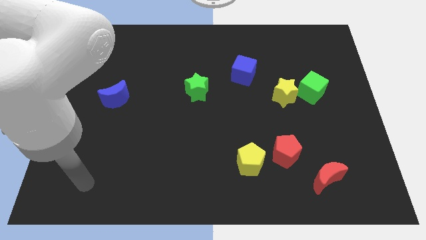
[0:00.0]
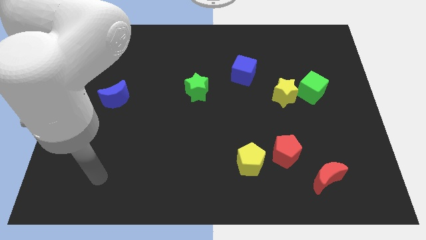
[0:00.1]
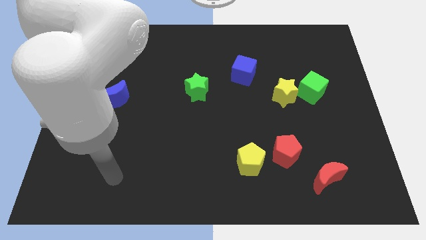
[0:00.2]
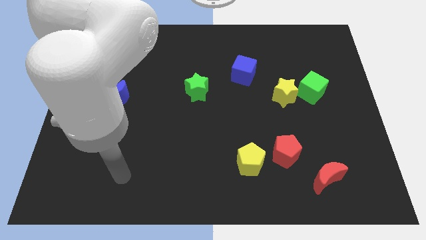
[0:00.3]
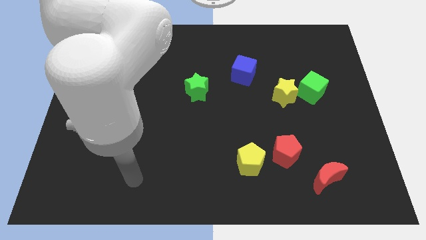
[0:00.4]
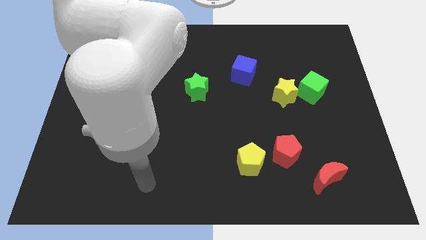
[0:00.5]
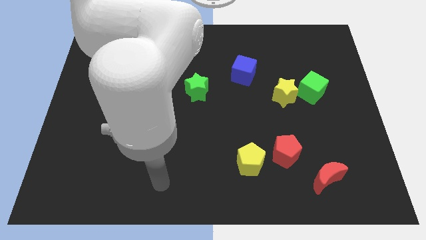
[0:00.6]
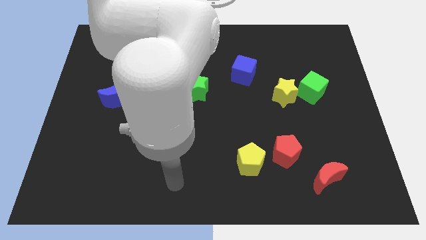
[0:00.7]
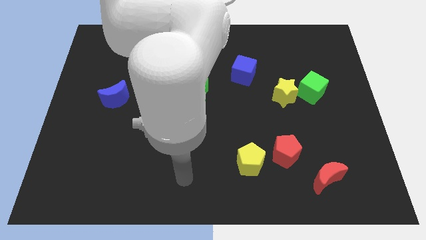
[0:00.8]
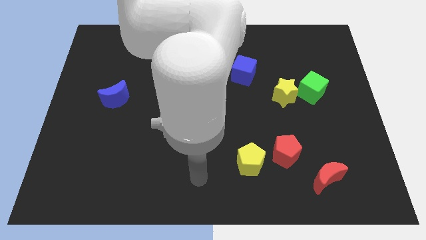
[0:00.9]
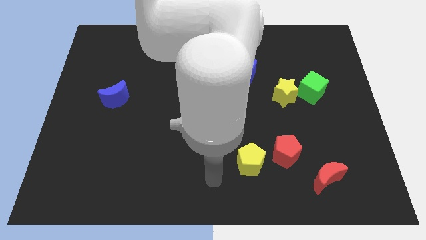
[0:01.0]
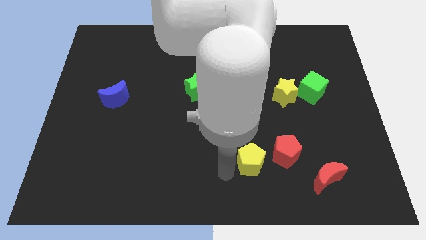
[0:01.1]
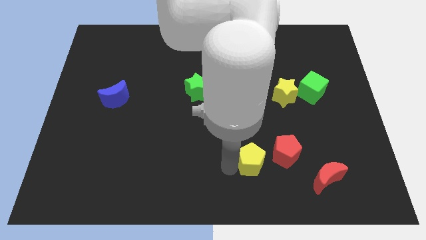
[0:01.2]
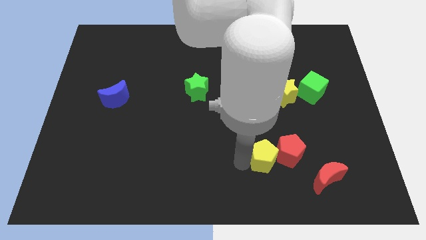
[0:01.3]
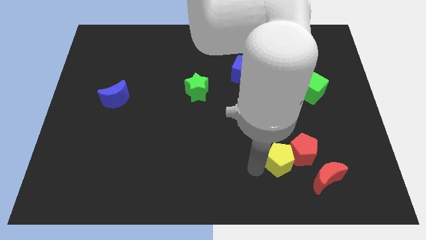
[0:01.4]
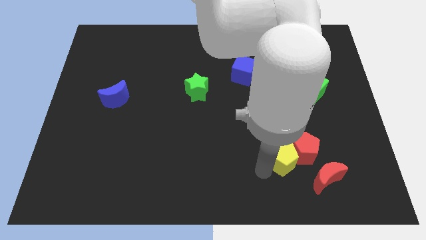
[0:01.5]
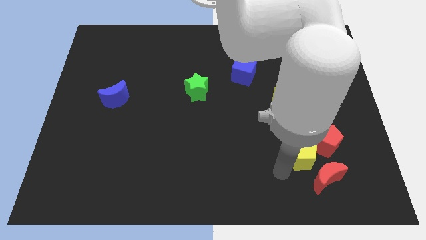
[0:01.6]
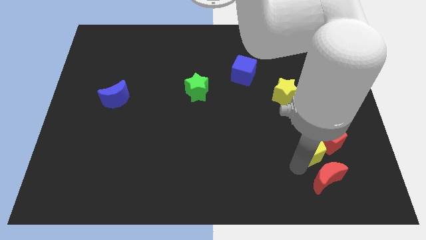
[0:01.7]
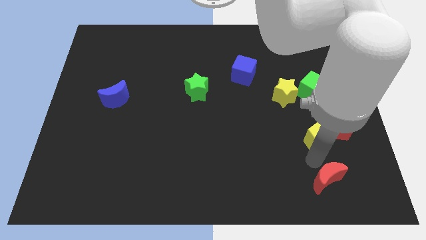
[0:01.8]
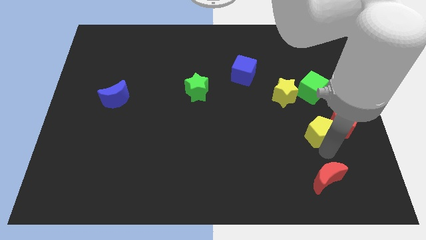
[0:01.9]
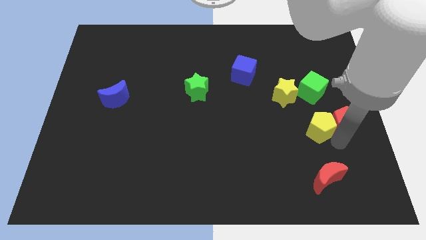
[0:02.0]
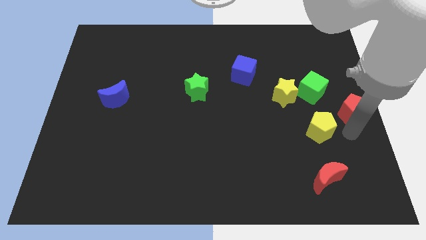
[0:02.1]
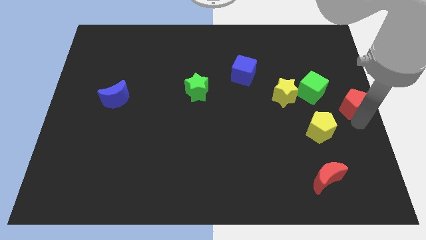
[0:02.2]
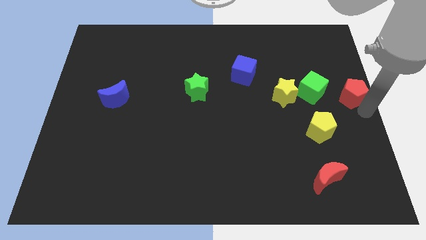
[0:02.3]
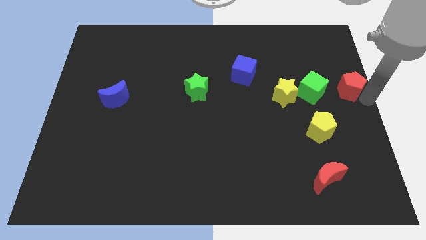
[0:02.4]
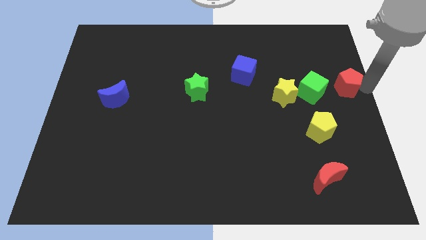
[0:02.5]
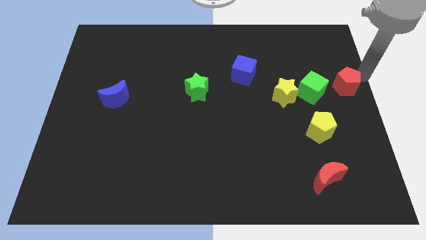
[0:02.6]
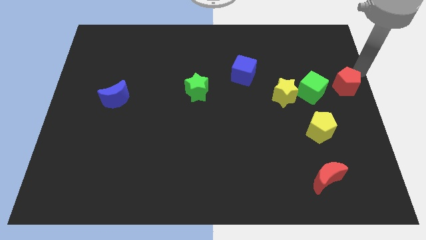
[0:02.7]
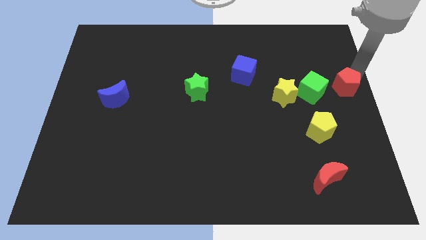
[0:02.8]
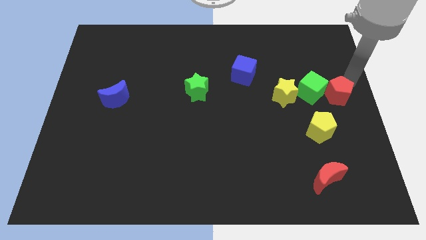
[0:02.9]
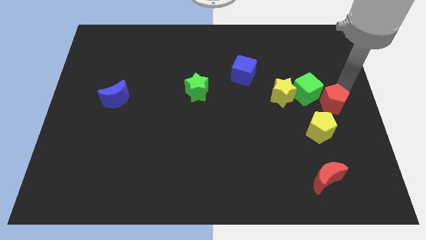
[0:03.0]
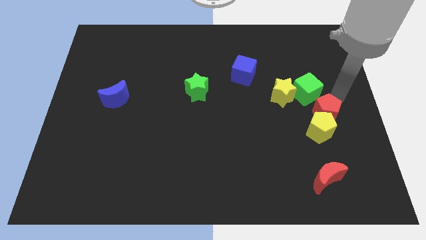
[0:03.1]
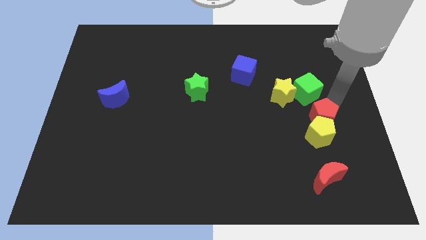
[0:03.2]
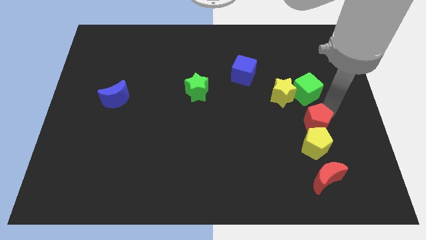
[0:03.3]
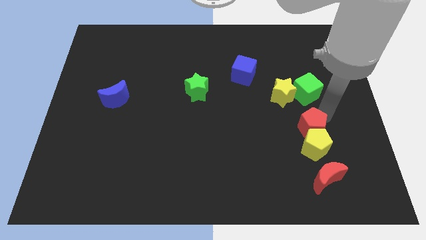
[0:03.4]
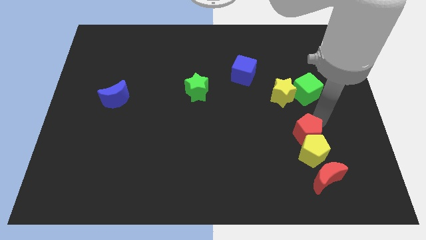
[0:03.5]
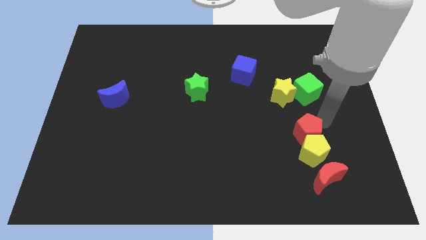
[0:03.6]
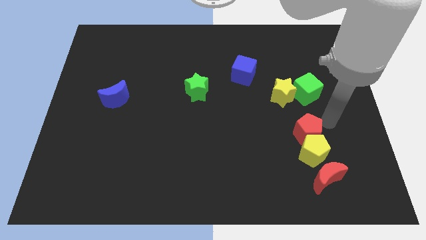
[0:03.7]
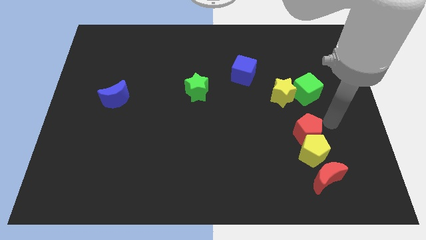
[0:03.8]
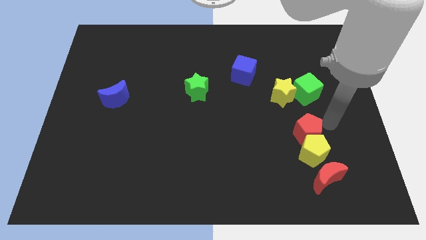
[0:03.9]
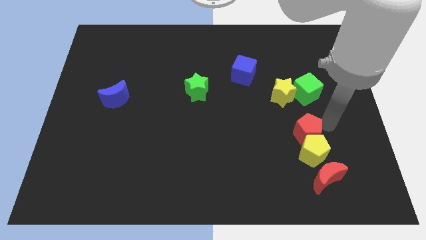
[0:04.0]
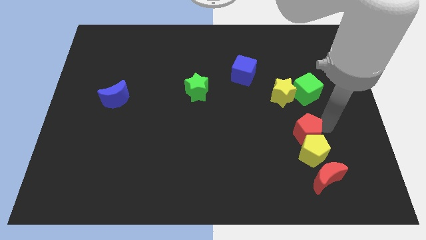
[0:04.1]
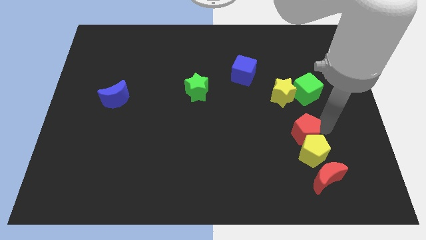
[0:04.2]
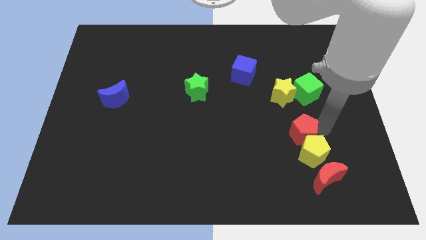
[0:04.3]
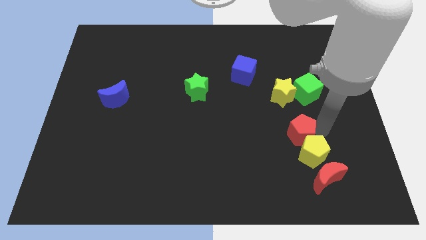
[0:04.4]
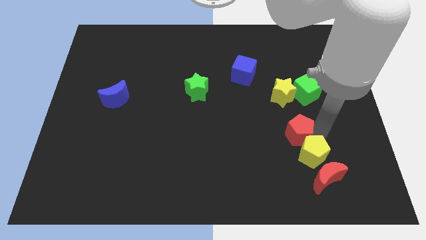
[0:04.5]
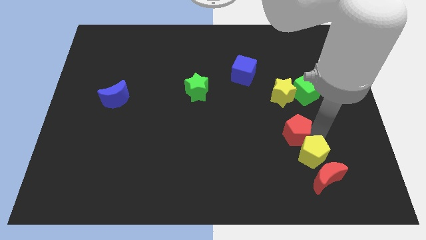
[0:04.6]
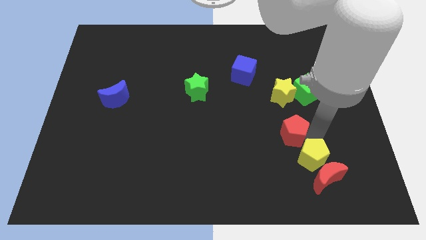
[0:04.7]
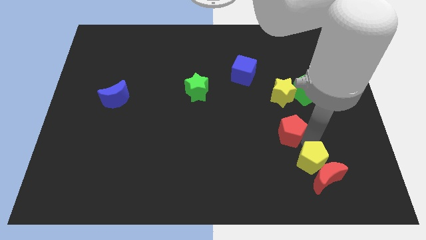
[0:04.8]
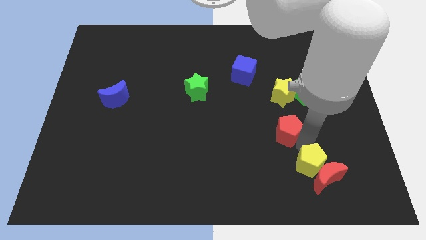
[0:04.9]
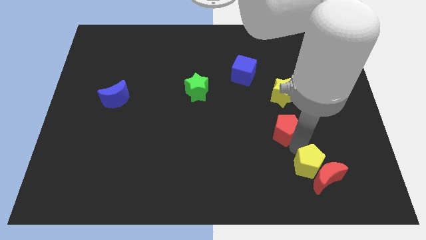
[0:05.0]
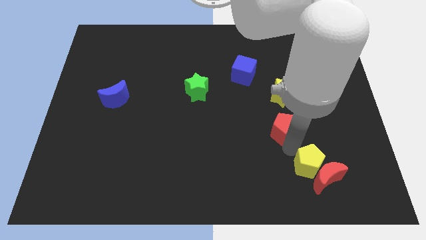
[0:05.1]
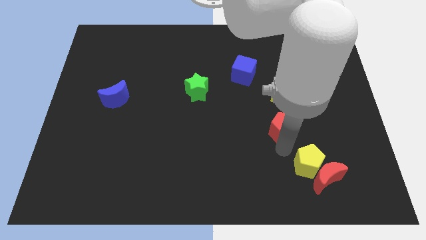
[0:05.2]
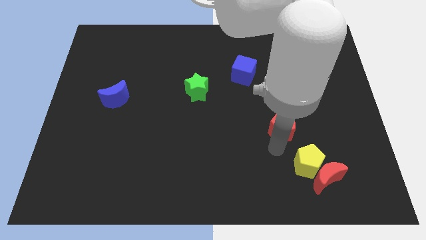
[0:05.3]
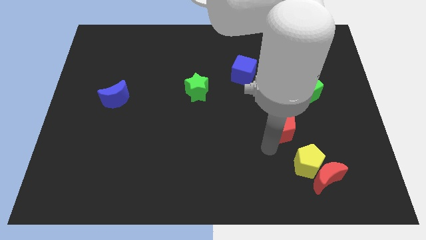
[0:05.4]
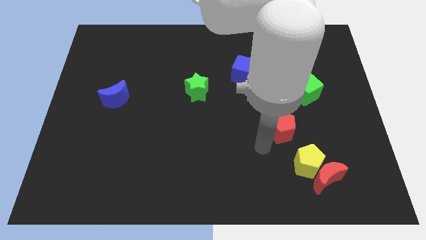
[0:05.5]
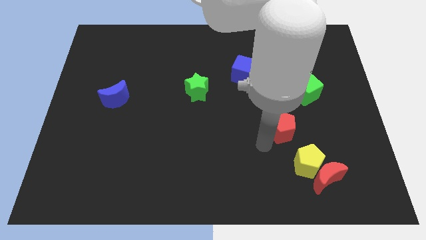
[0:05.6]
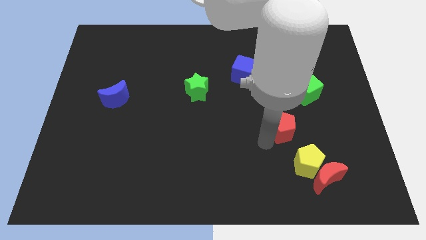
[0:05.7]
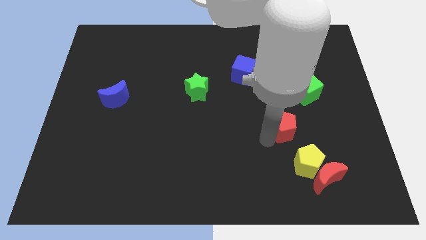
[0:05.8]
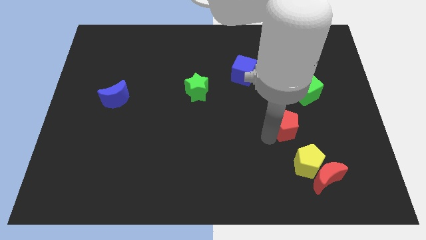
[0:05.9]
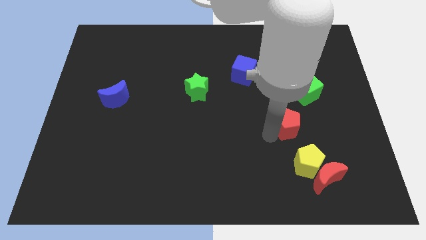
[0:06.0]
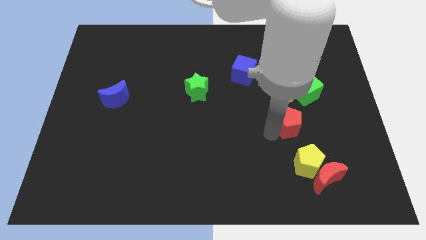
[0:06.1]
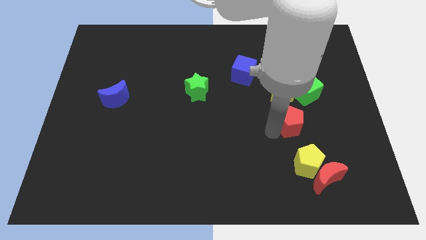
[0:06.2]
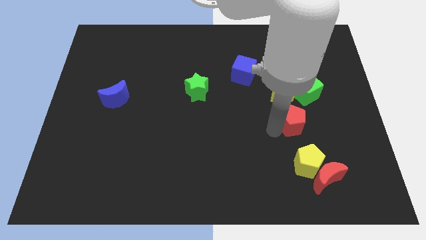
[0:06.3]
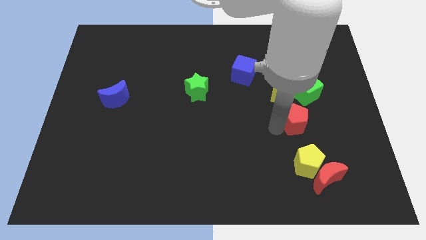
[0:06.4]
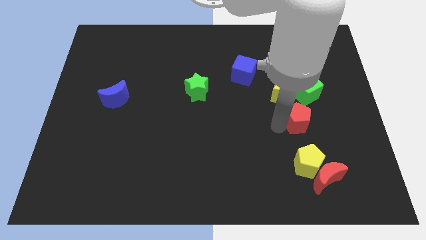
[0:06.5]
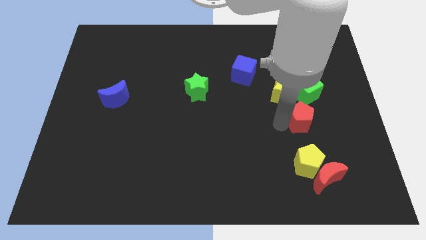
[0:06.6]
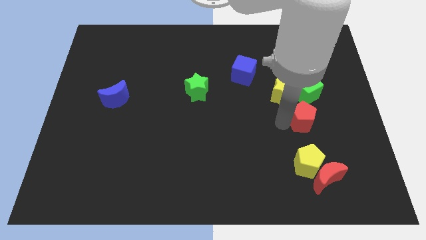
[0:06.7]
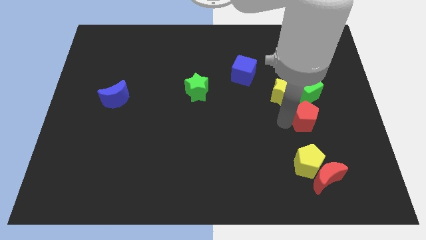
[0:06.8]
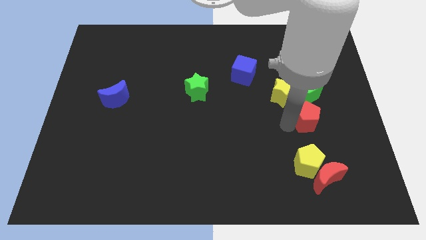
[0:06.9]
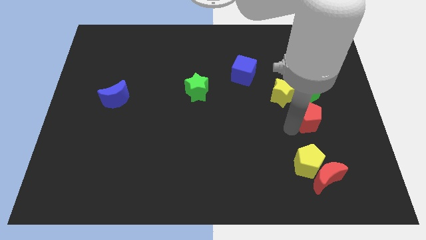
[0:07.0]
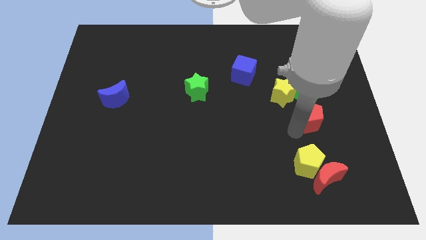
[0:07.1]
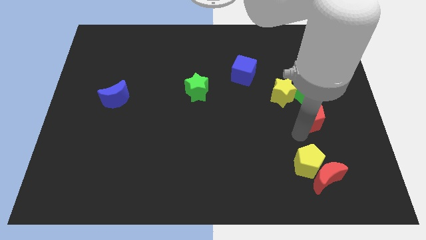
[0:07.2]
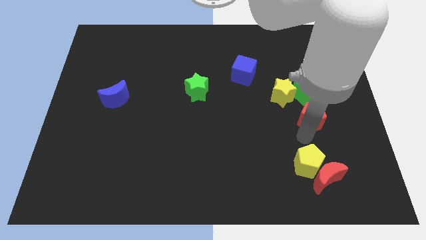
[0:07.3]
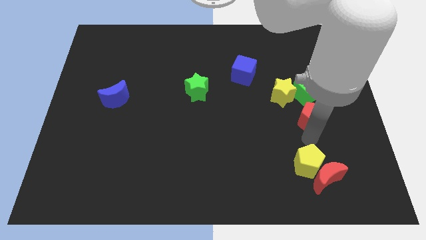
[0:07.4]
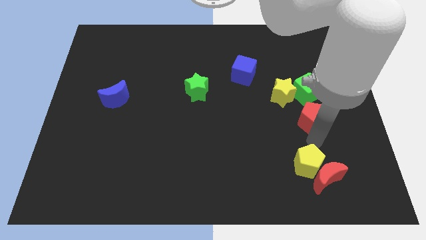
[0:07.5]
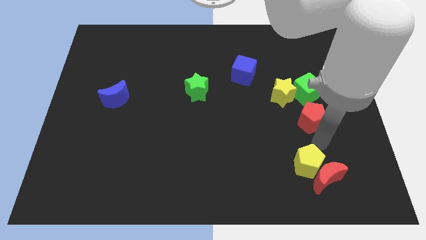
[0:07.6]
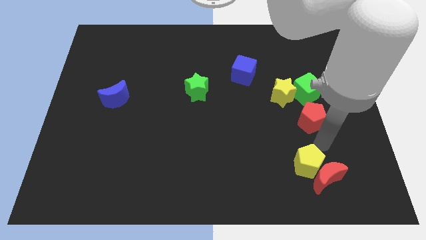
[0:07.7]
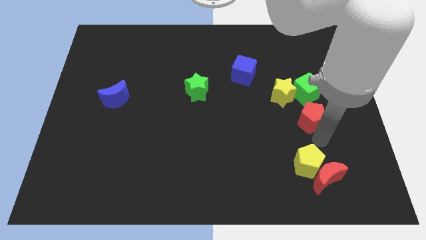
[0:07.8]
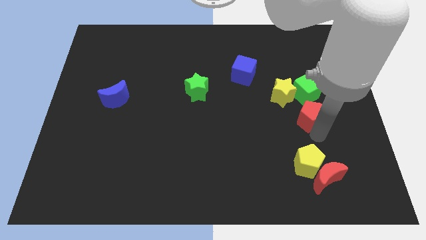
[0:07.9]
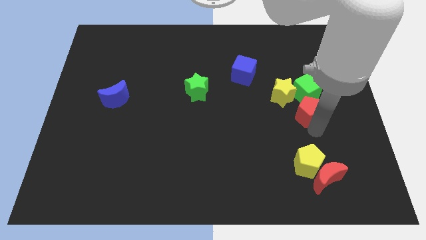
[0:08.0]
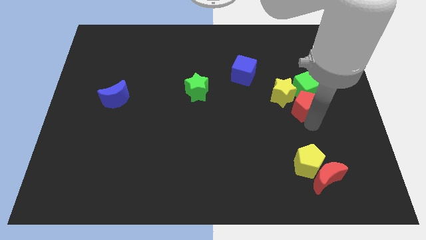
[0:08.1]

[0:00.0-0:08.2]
put the red pentagon close to the green cube
